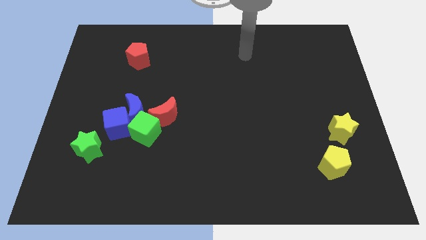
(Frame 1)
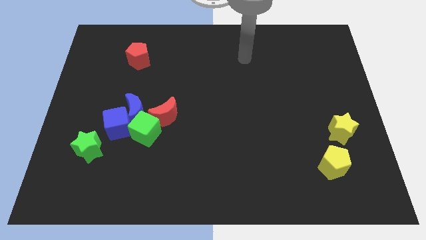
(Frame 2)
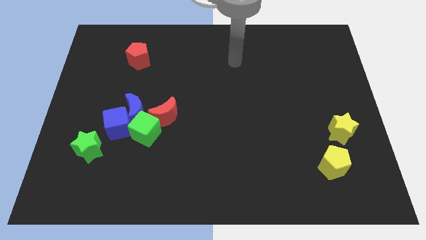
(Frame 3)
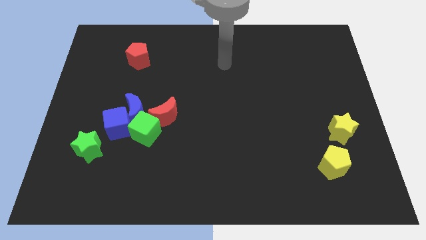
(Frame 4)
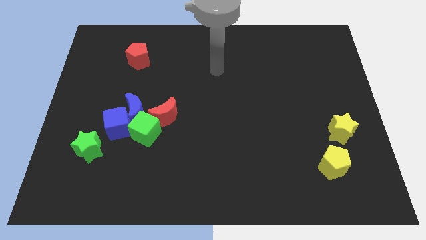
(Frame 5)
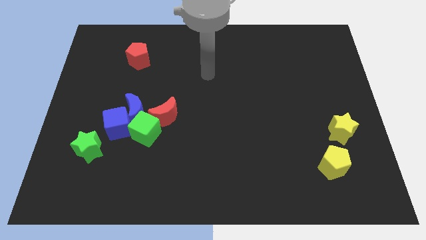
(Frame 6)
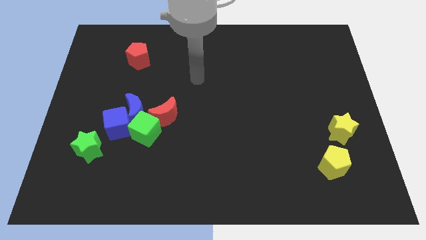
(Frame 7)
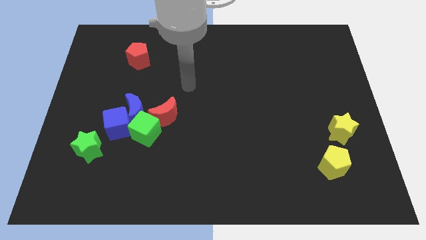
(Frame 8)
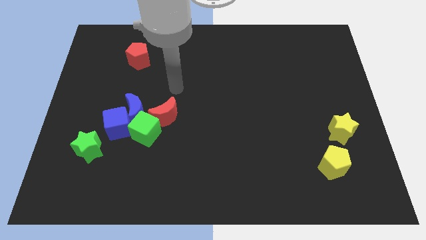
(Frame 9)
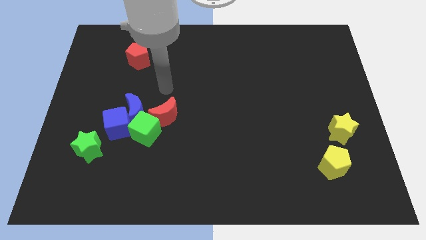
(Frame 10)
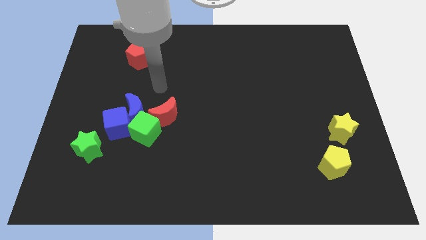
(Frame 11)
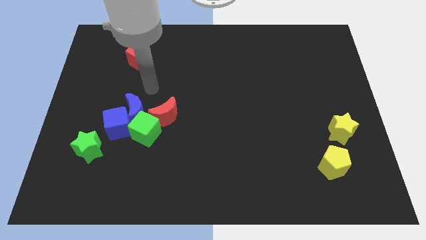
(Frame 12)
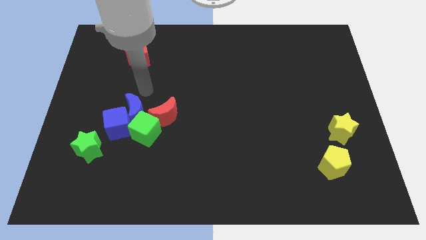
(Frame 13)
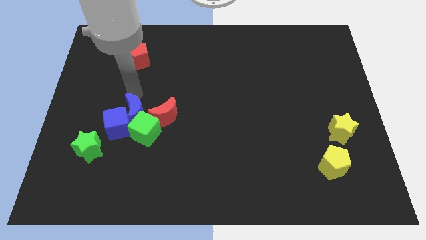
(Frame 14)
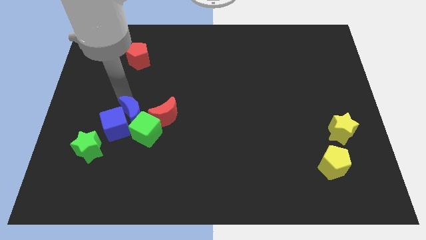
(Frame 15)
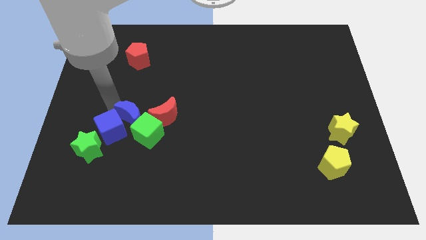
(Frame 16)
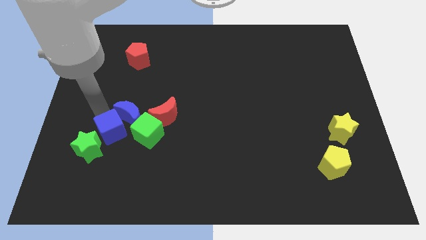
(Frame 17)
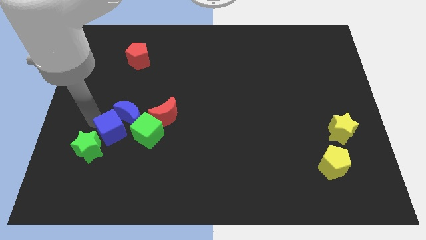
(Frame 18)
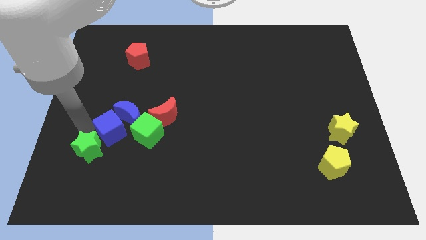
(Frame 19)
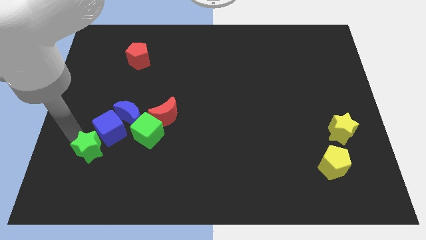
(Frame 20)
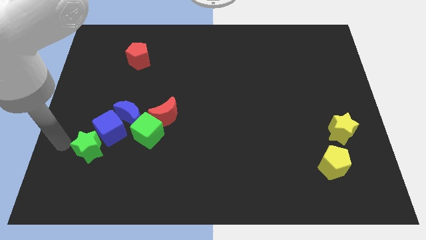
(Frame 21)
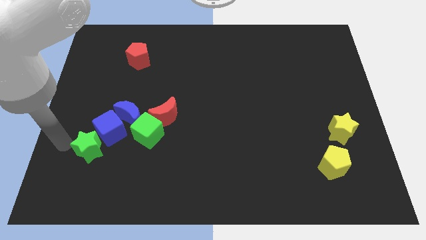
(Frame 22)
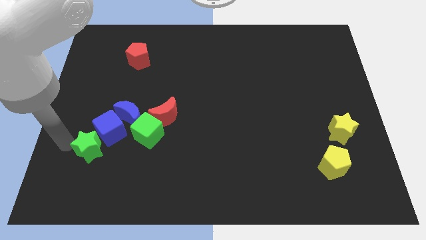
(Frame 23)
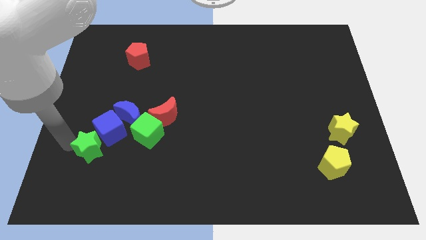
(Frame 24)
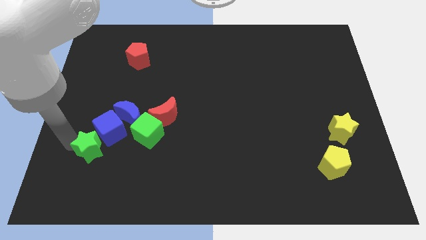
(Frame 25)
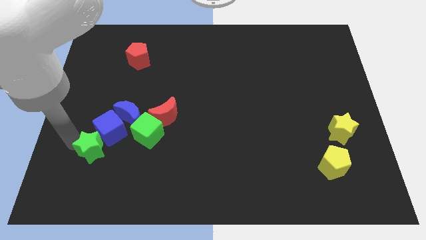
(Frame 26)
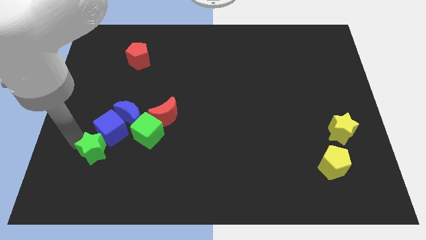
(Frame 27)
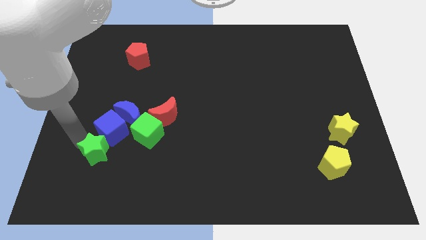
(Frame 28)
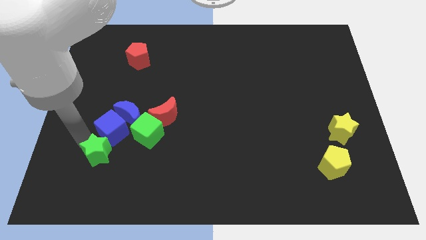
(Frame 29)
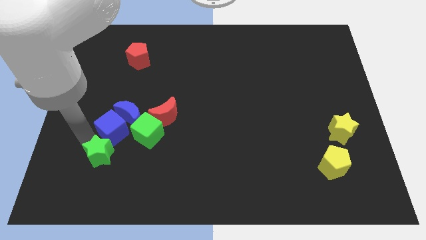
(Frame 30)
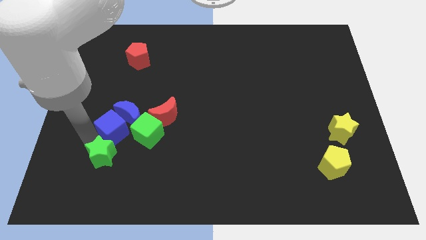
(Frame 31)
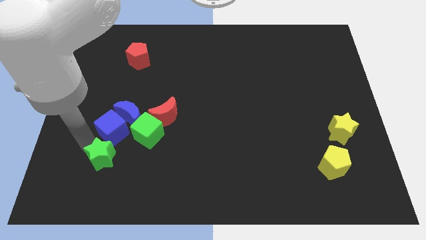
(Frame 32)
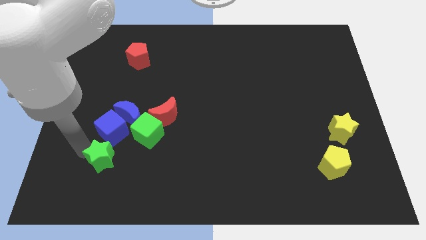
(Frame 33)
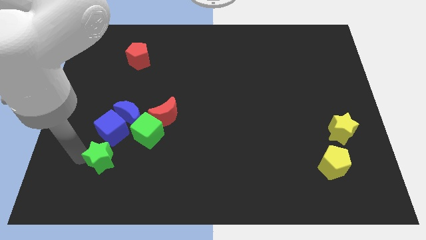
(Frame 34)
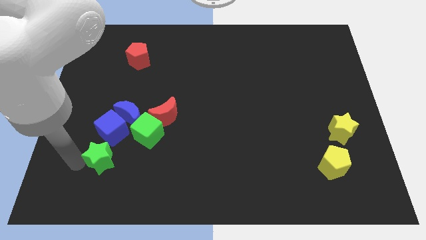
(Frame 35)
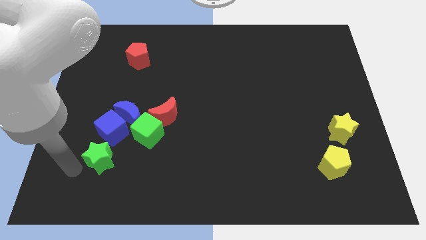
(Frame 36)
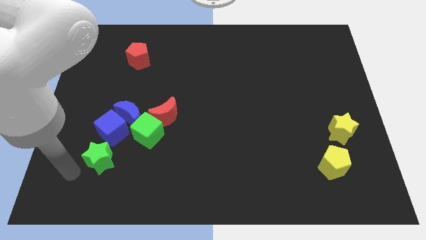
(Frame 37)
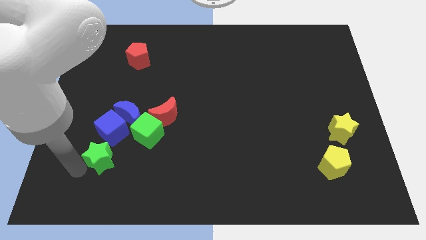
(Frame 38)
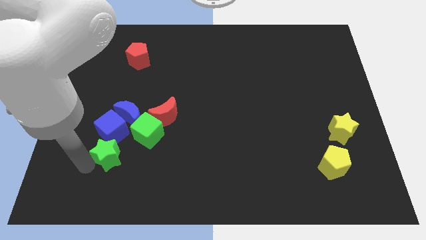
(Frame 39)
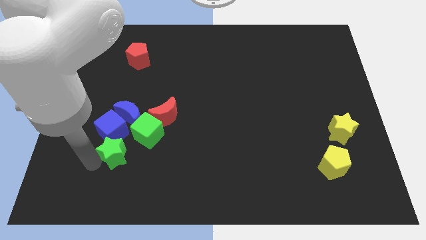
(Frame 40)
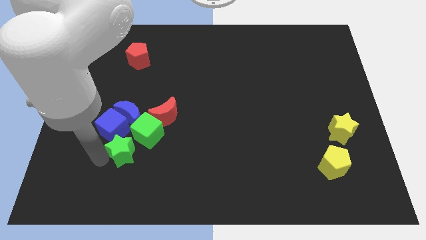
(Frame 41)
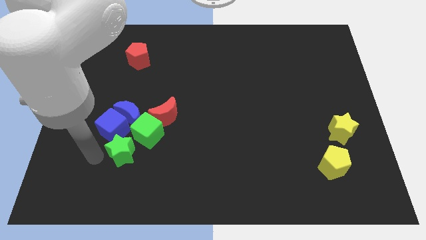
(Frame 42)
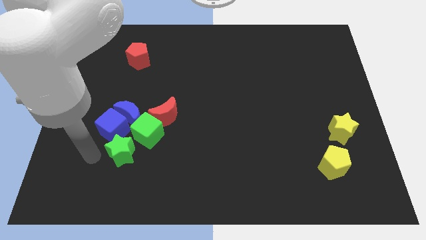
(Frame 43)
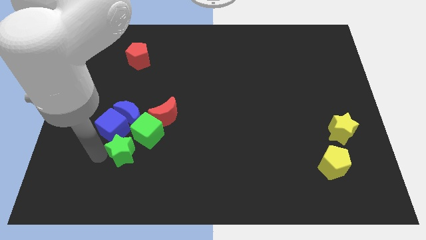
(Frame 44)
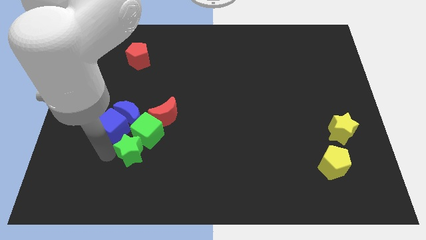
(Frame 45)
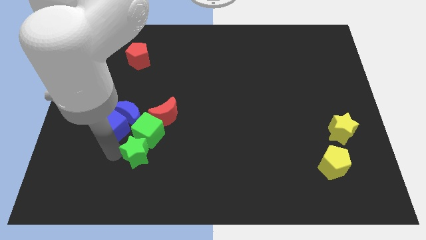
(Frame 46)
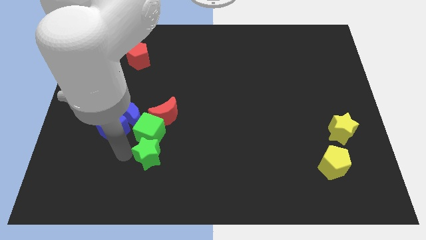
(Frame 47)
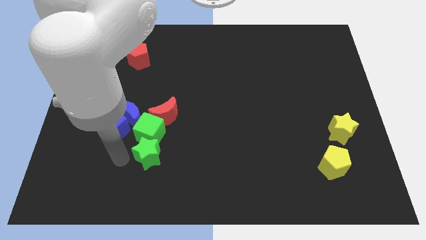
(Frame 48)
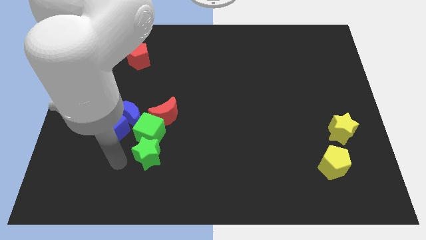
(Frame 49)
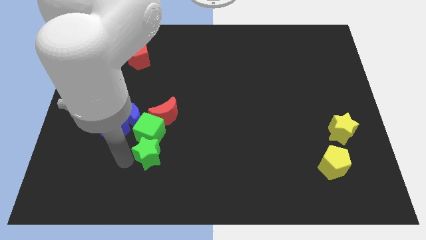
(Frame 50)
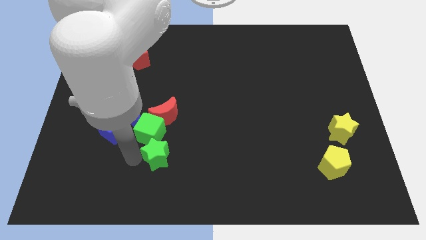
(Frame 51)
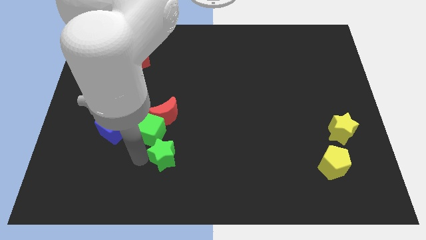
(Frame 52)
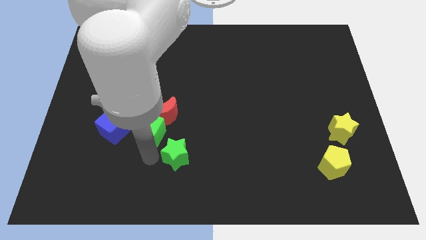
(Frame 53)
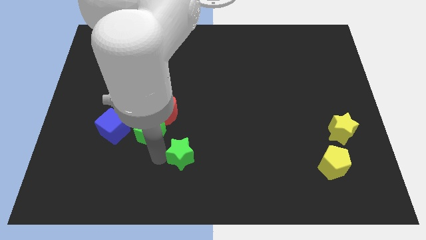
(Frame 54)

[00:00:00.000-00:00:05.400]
slide the green star right

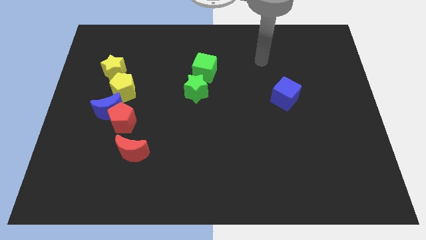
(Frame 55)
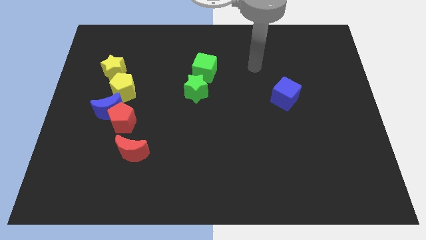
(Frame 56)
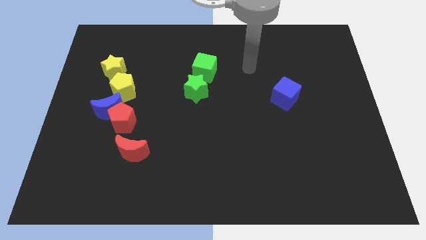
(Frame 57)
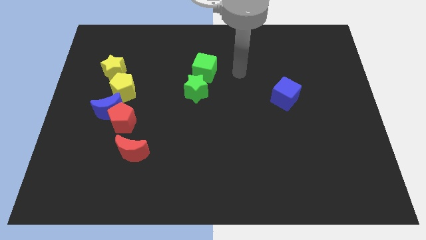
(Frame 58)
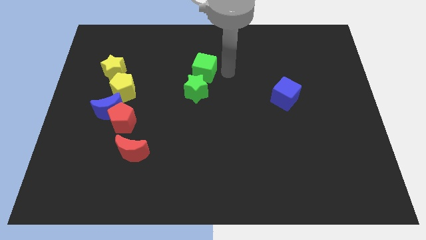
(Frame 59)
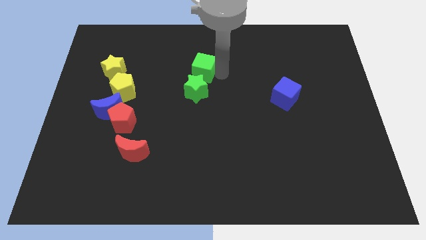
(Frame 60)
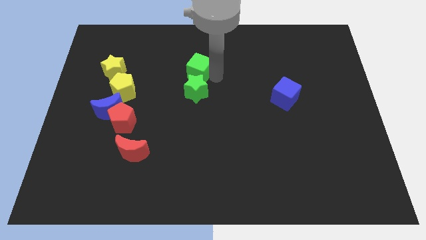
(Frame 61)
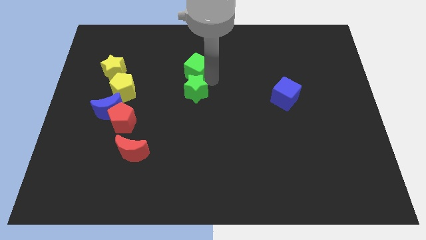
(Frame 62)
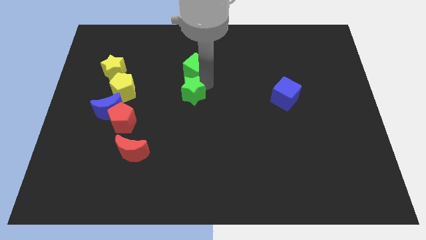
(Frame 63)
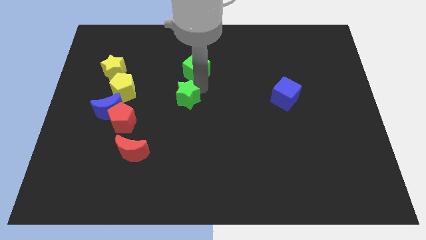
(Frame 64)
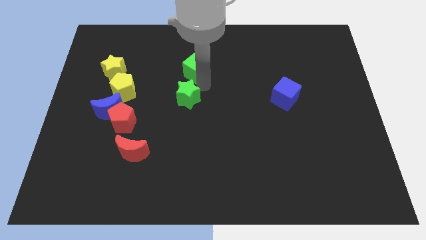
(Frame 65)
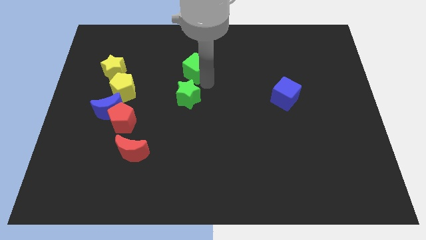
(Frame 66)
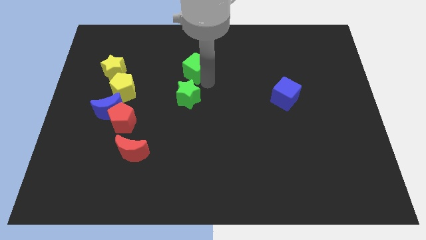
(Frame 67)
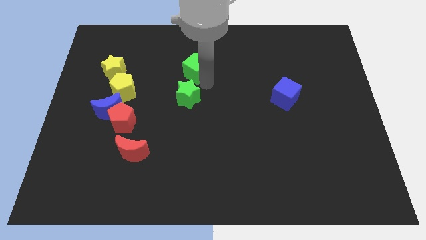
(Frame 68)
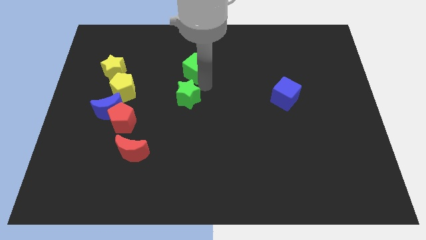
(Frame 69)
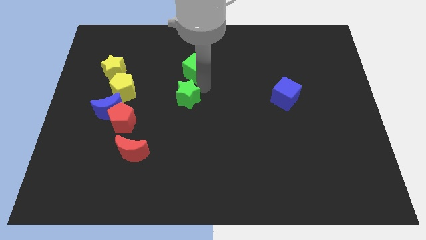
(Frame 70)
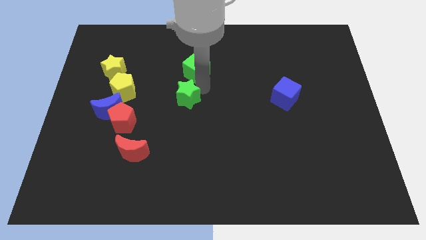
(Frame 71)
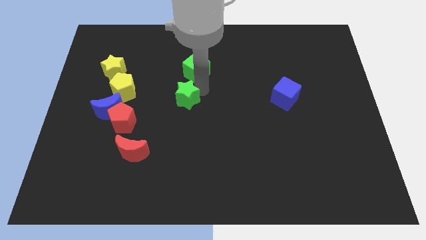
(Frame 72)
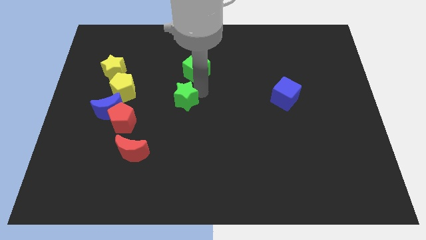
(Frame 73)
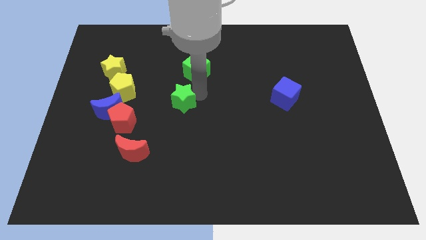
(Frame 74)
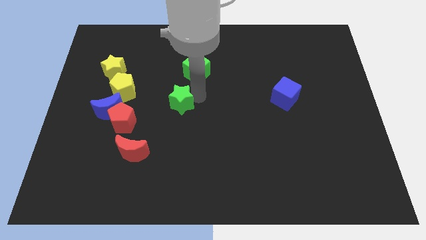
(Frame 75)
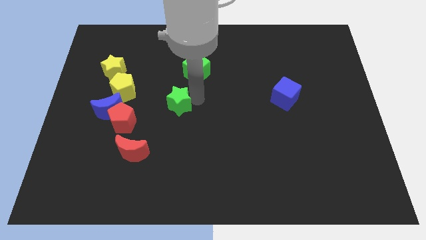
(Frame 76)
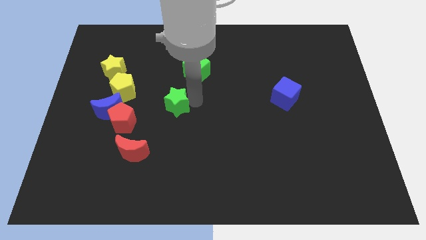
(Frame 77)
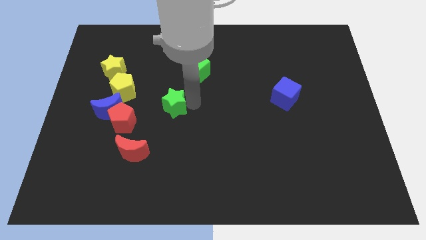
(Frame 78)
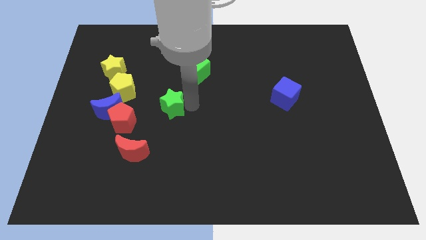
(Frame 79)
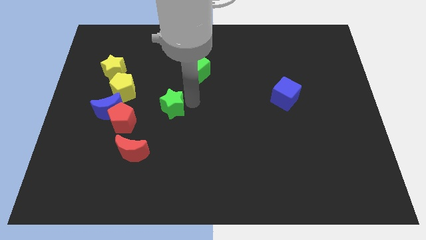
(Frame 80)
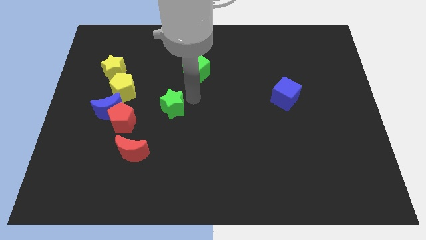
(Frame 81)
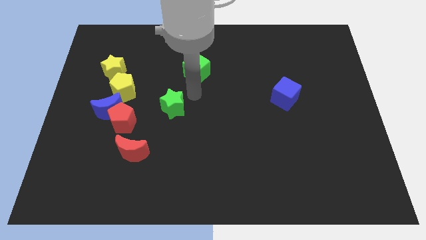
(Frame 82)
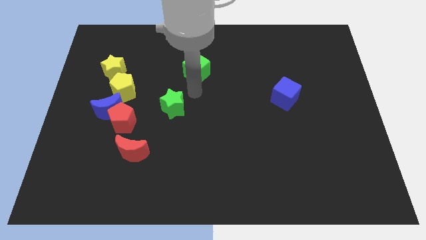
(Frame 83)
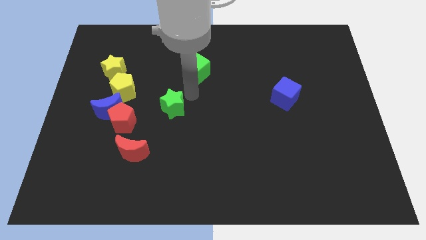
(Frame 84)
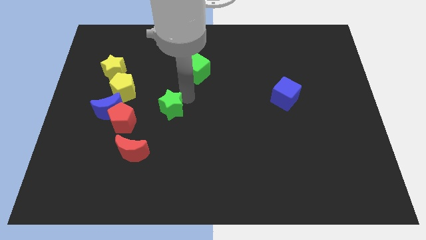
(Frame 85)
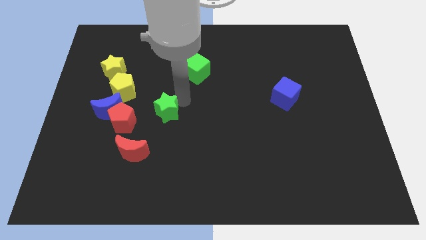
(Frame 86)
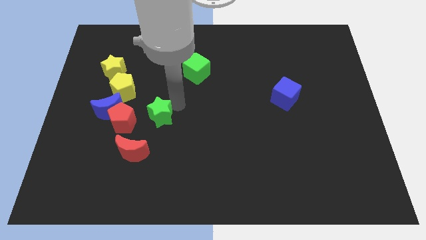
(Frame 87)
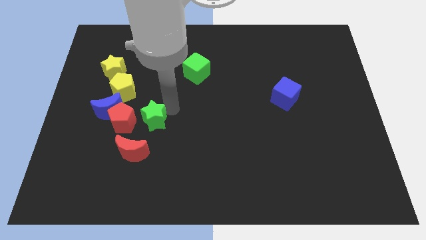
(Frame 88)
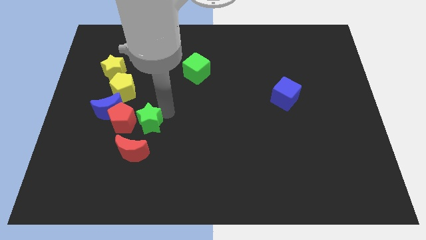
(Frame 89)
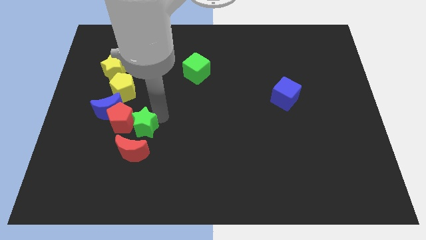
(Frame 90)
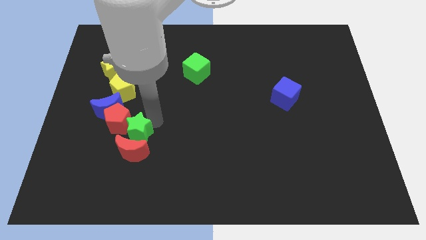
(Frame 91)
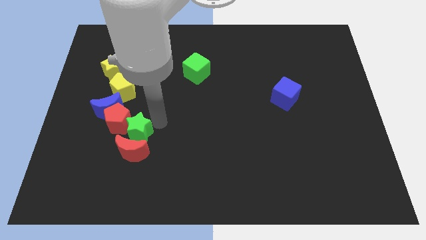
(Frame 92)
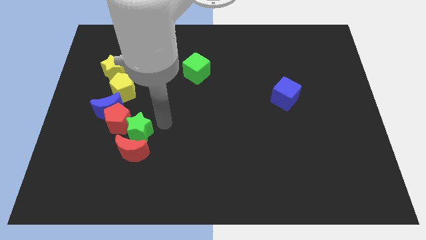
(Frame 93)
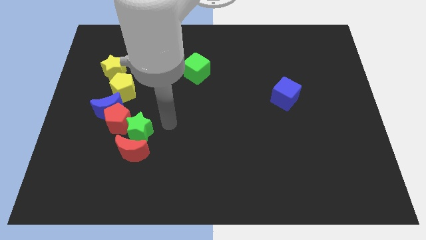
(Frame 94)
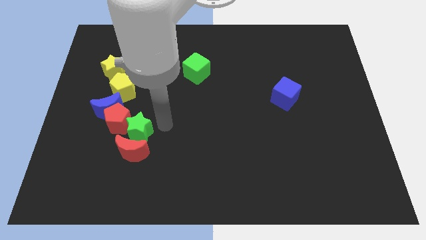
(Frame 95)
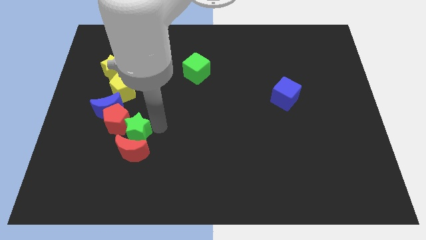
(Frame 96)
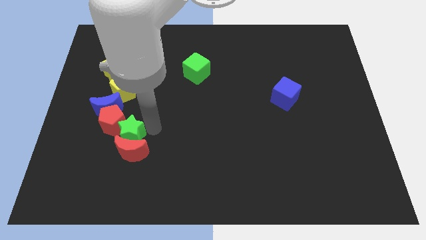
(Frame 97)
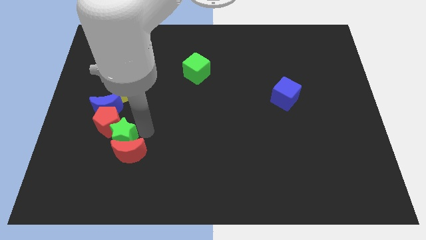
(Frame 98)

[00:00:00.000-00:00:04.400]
slide the green star diagonally down and to the left
